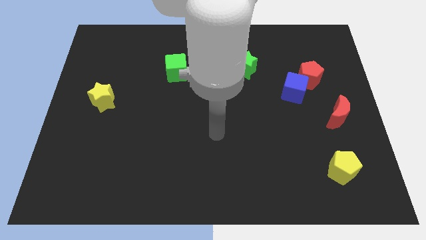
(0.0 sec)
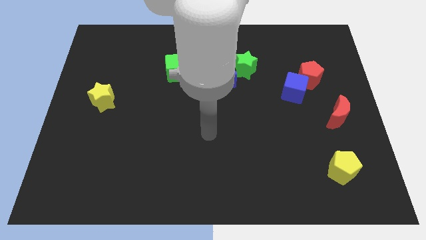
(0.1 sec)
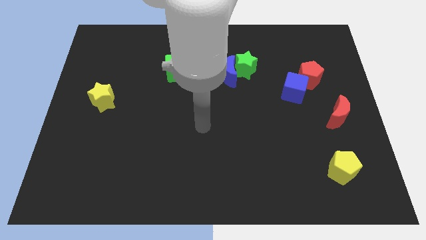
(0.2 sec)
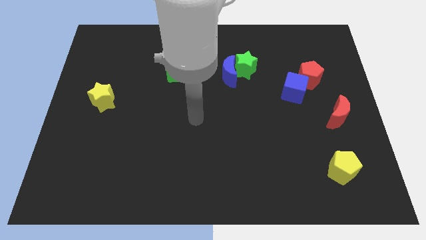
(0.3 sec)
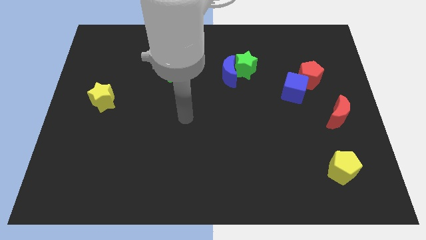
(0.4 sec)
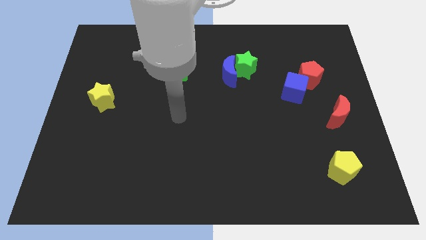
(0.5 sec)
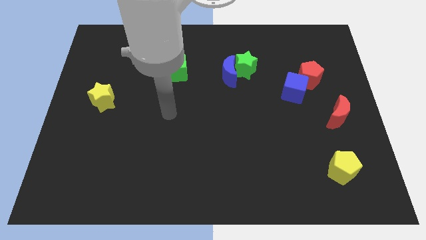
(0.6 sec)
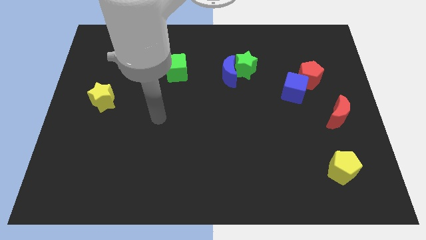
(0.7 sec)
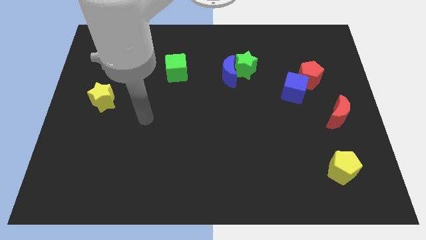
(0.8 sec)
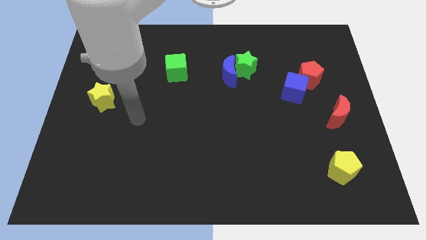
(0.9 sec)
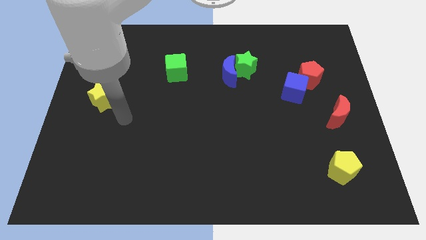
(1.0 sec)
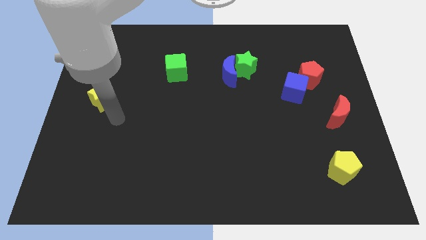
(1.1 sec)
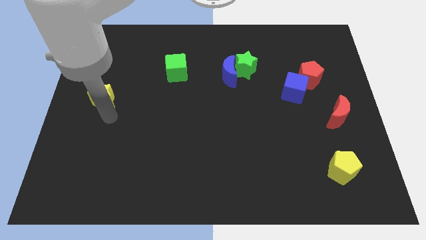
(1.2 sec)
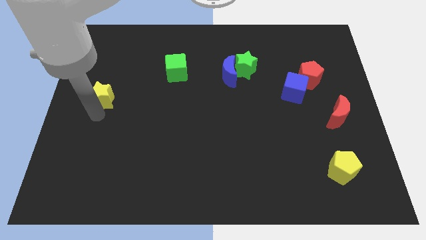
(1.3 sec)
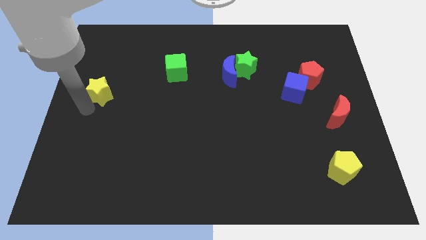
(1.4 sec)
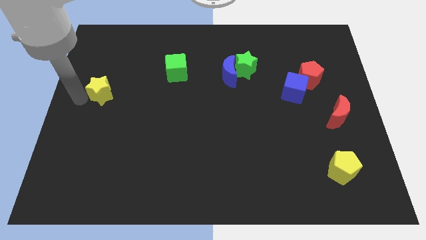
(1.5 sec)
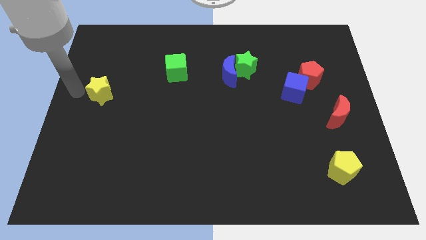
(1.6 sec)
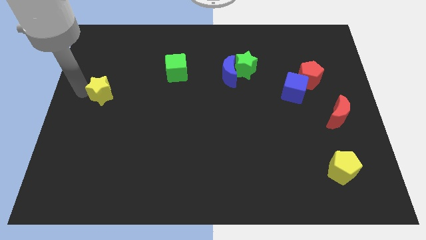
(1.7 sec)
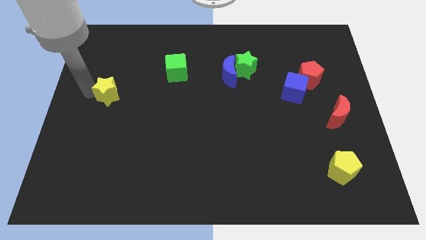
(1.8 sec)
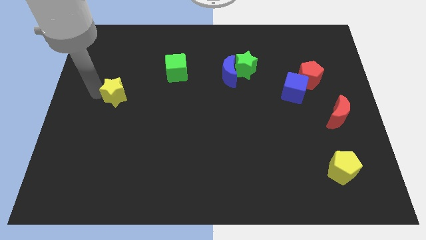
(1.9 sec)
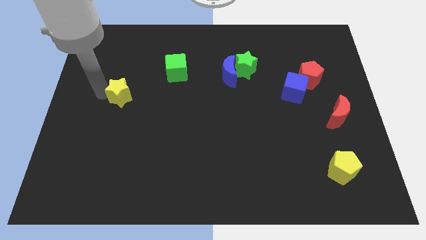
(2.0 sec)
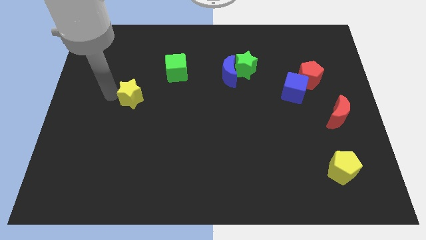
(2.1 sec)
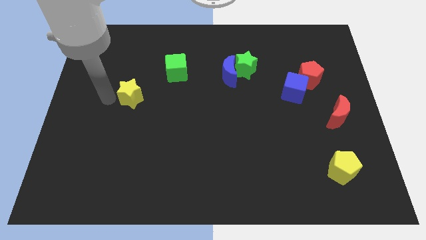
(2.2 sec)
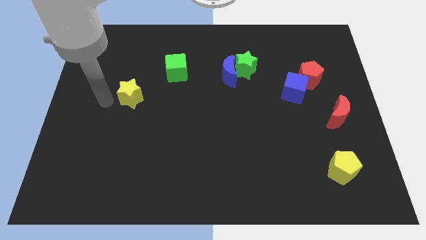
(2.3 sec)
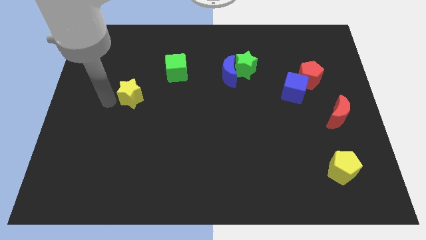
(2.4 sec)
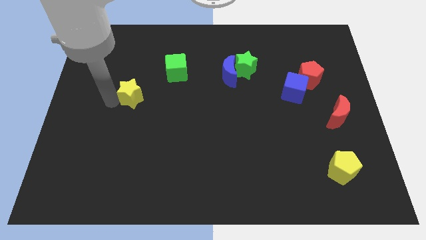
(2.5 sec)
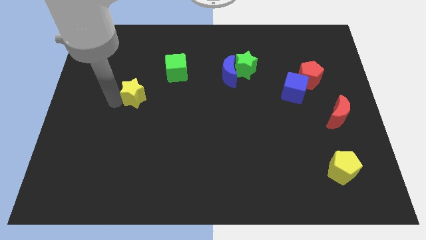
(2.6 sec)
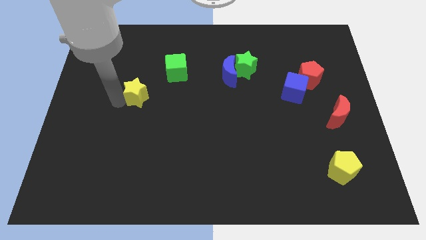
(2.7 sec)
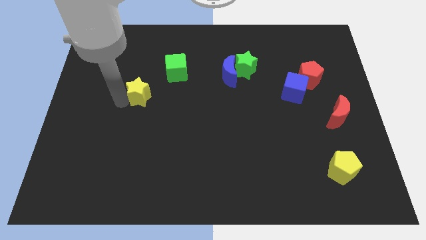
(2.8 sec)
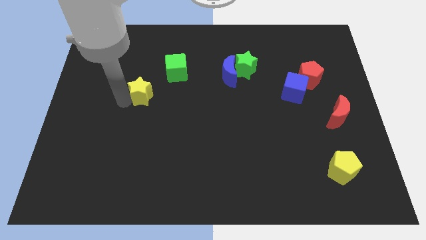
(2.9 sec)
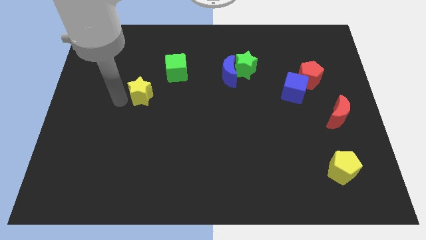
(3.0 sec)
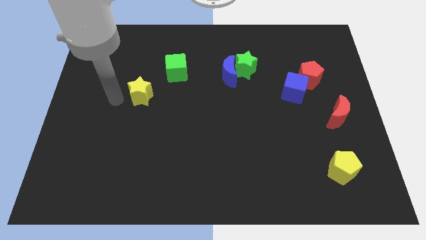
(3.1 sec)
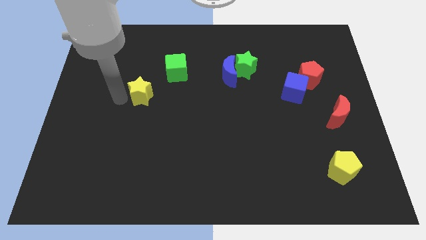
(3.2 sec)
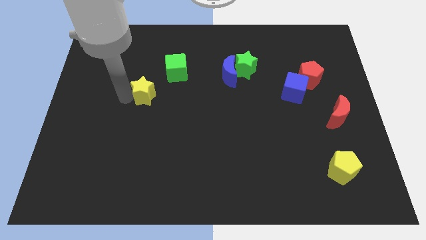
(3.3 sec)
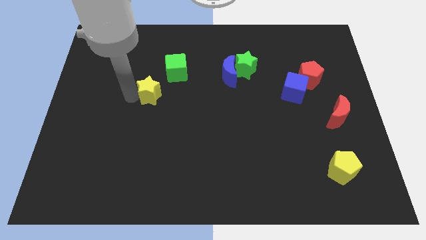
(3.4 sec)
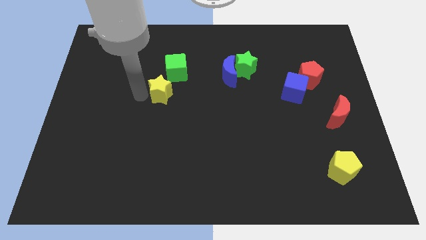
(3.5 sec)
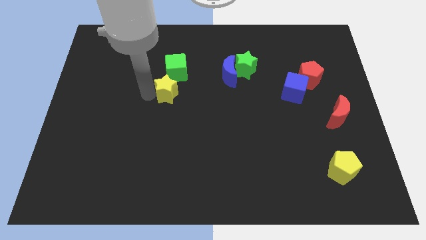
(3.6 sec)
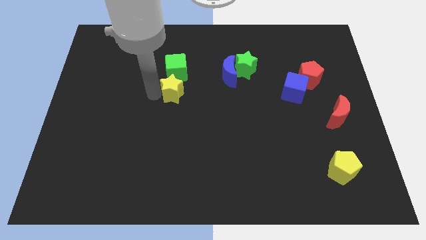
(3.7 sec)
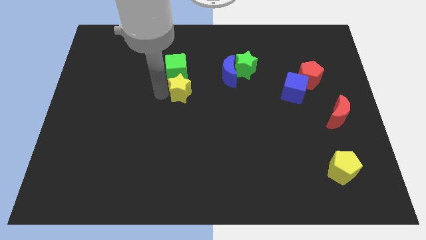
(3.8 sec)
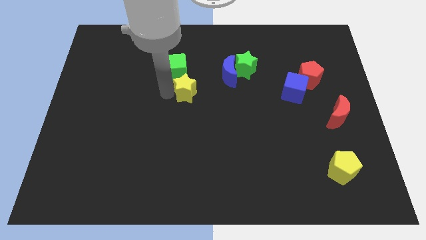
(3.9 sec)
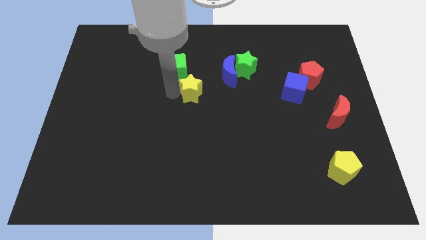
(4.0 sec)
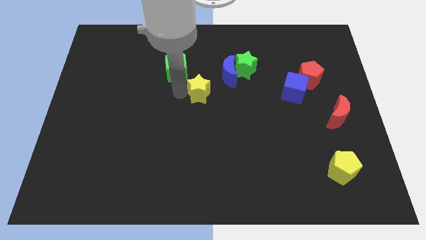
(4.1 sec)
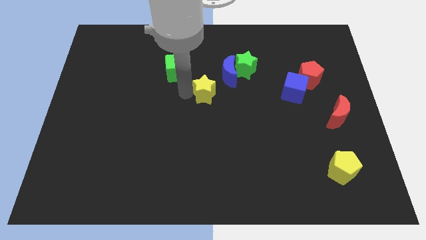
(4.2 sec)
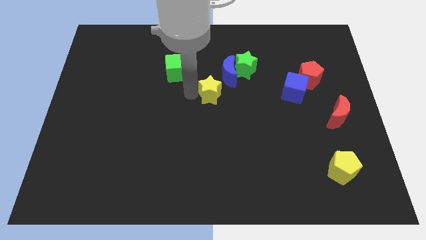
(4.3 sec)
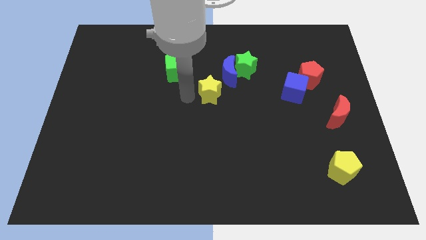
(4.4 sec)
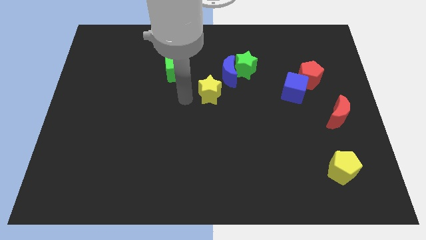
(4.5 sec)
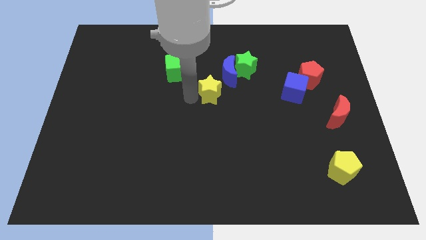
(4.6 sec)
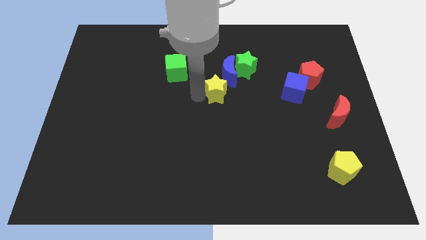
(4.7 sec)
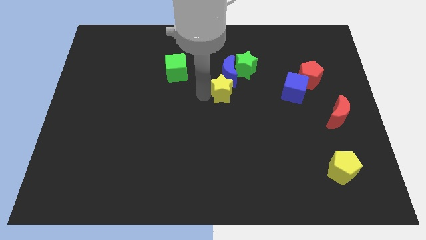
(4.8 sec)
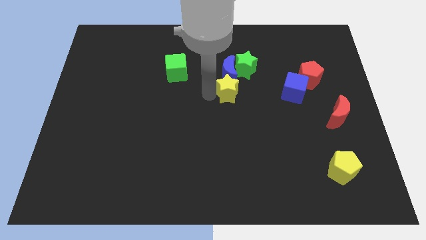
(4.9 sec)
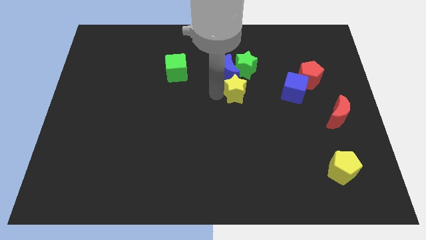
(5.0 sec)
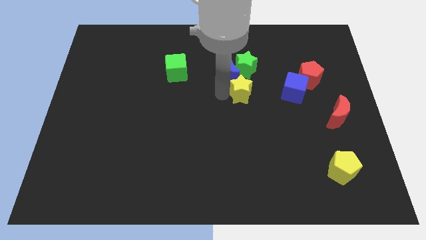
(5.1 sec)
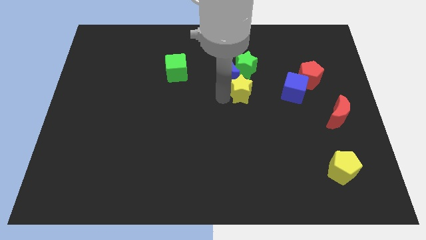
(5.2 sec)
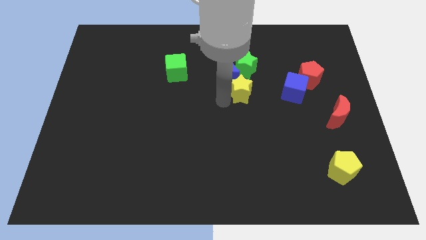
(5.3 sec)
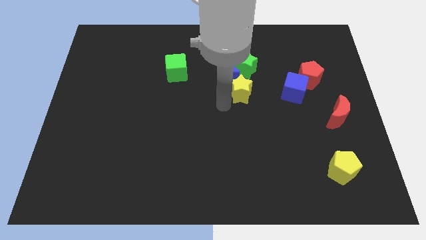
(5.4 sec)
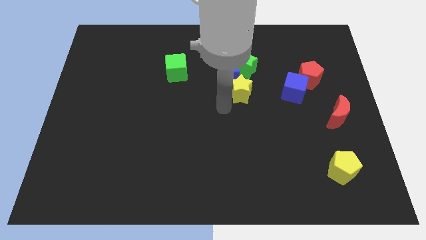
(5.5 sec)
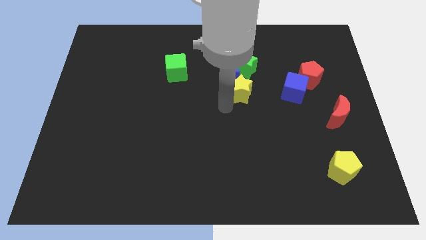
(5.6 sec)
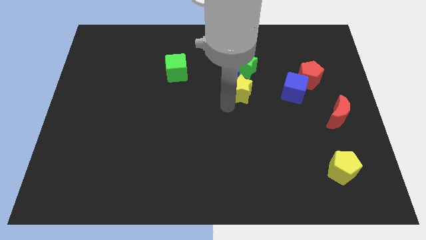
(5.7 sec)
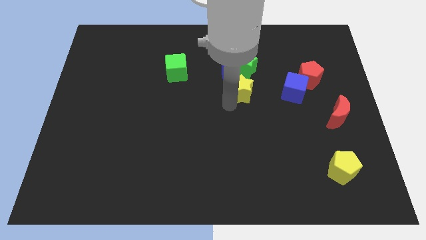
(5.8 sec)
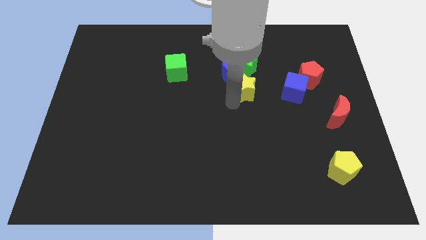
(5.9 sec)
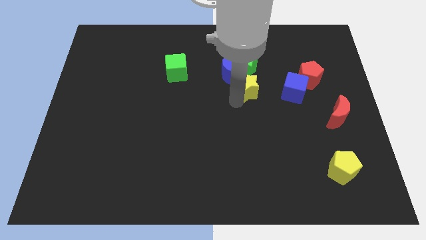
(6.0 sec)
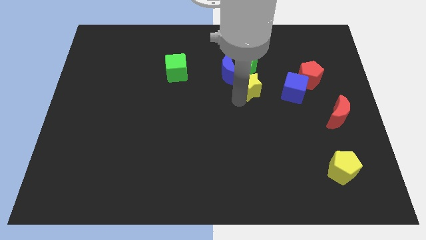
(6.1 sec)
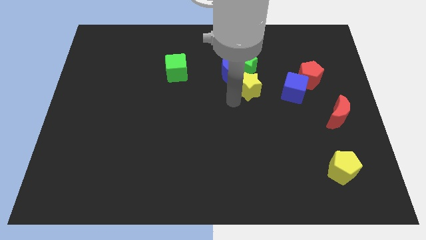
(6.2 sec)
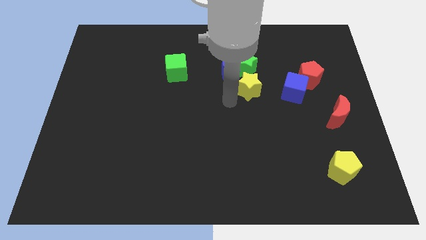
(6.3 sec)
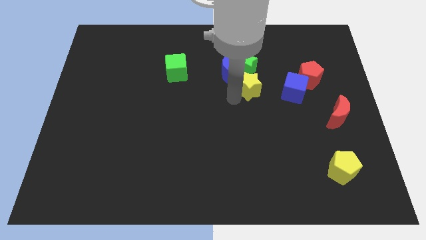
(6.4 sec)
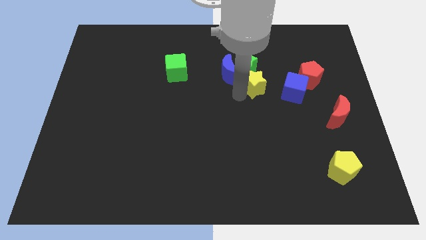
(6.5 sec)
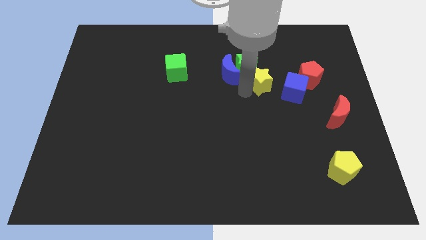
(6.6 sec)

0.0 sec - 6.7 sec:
move the yellow star to the top left side of the blue cube
